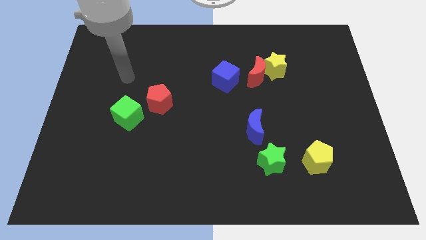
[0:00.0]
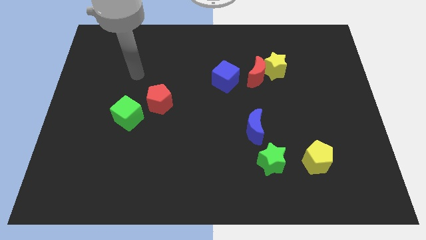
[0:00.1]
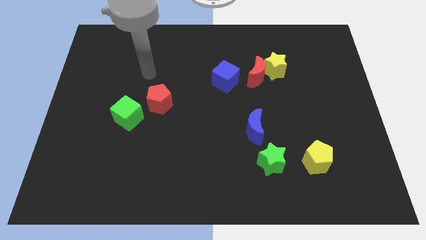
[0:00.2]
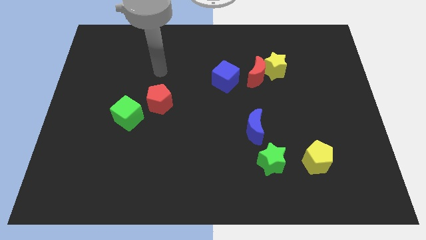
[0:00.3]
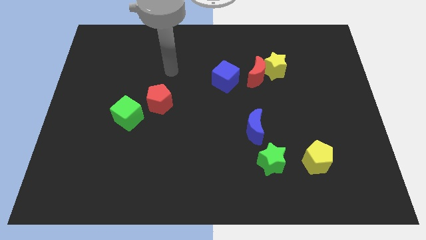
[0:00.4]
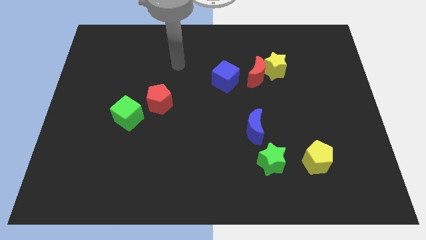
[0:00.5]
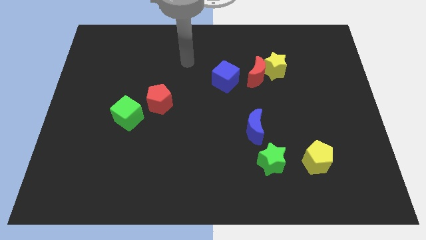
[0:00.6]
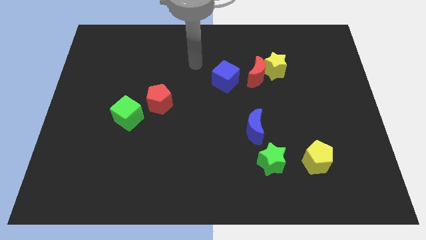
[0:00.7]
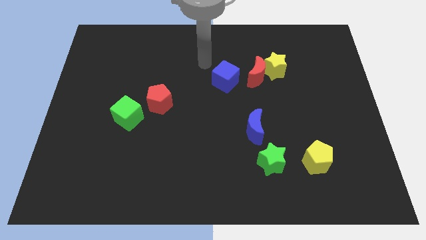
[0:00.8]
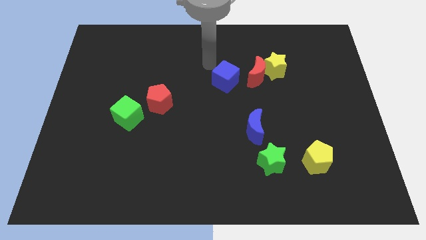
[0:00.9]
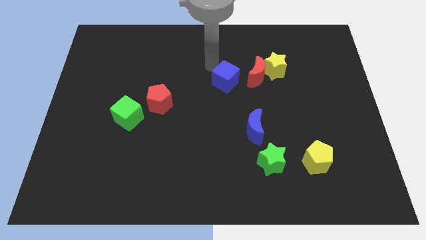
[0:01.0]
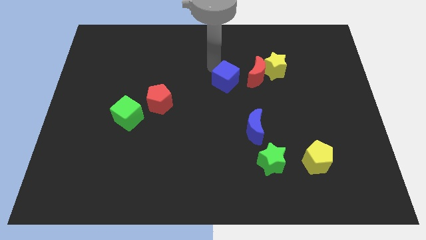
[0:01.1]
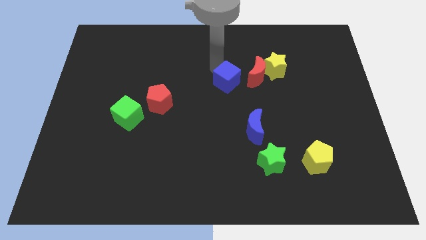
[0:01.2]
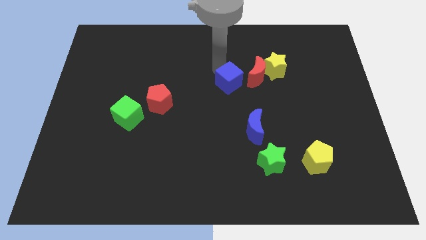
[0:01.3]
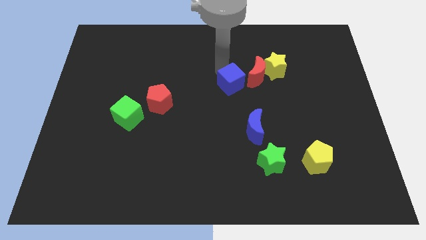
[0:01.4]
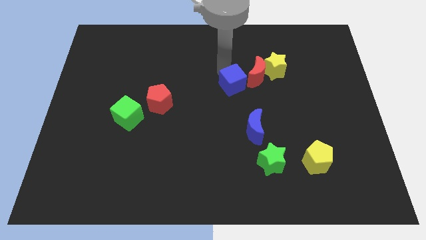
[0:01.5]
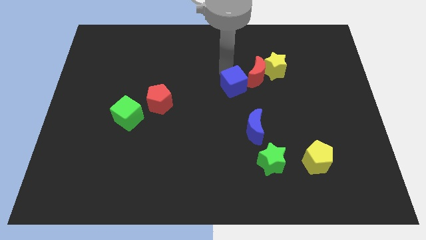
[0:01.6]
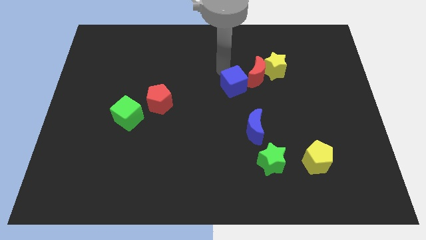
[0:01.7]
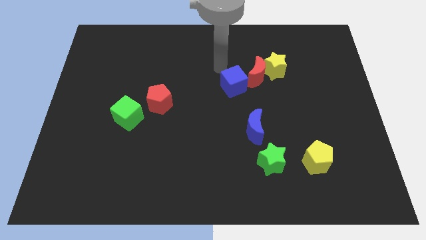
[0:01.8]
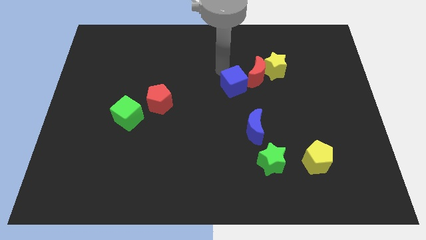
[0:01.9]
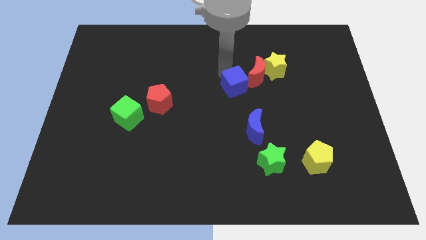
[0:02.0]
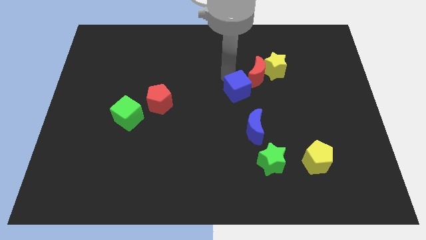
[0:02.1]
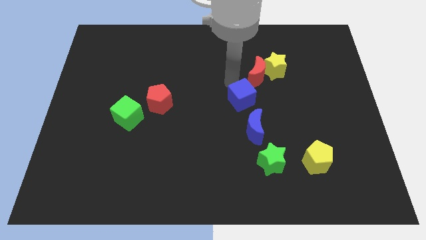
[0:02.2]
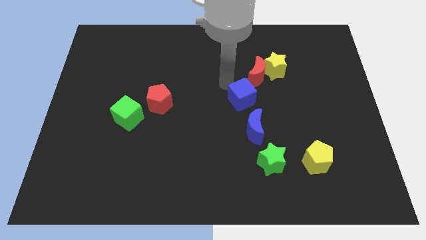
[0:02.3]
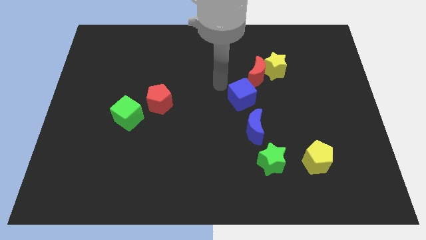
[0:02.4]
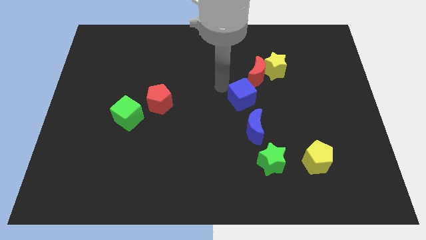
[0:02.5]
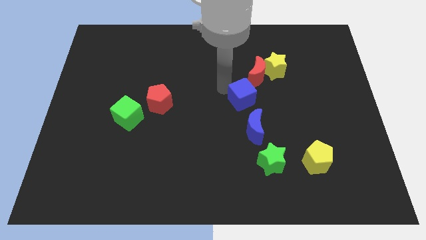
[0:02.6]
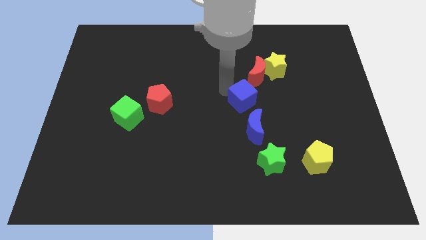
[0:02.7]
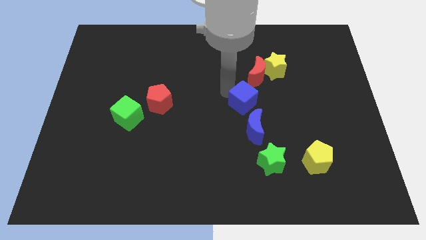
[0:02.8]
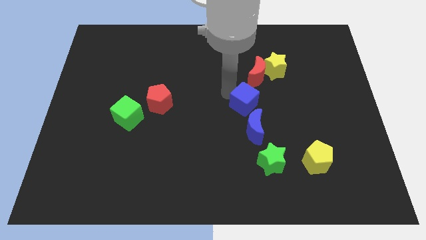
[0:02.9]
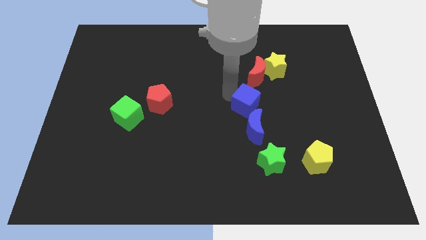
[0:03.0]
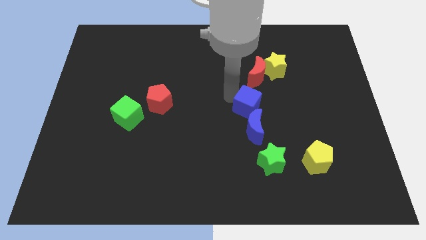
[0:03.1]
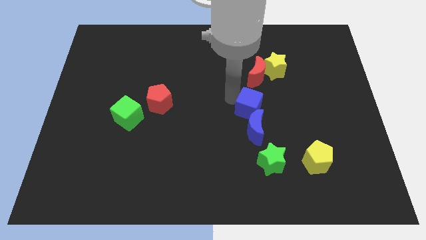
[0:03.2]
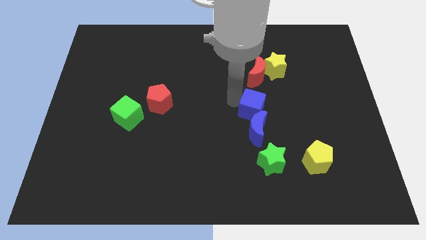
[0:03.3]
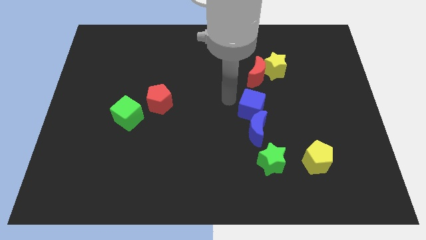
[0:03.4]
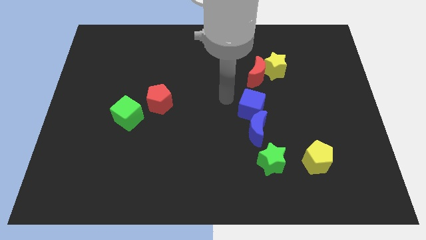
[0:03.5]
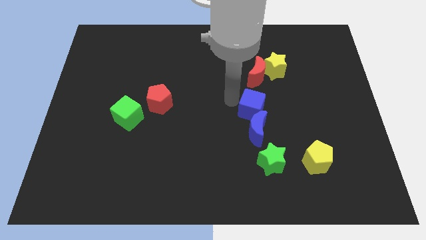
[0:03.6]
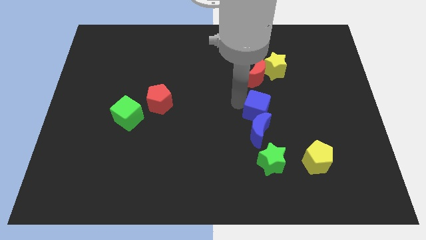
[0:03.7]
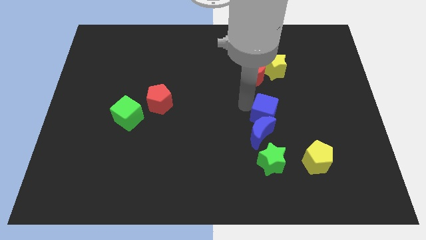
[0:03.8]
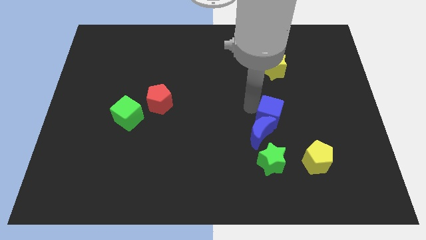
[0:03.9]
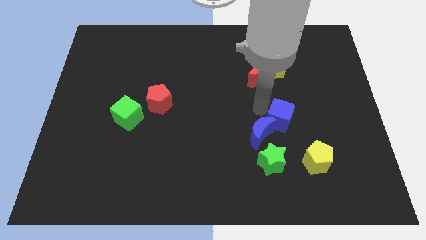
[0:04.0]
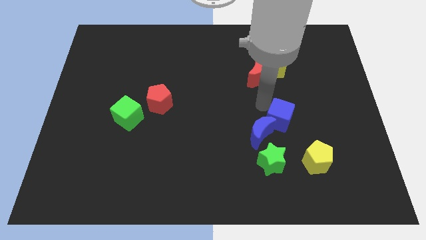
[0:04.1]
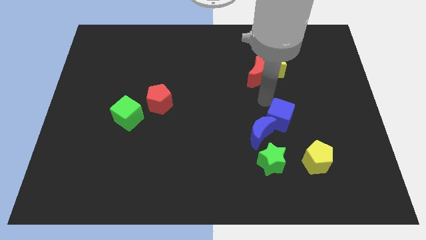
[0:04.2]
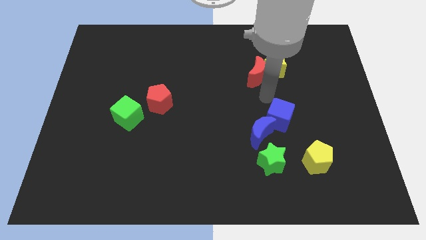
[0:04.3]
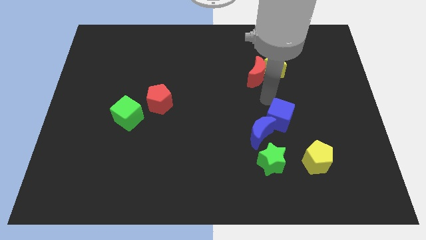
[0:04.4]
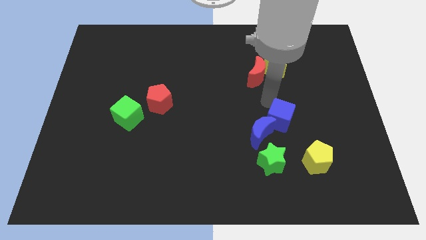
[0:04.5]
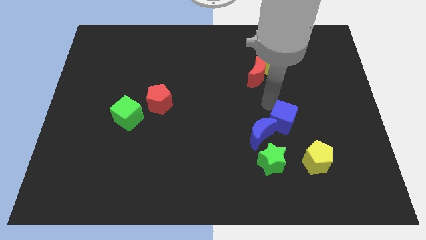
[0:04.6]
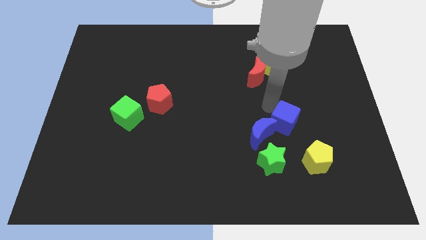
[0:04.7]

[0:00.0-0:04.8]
slide the blue cube to the top right side of the green star

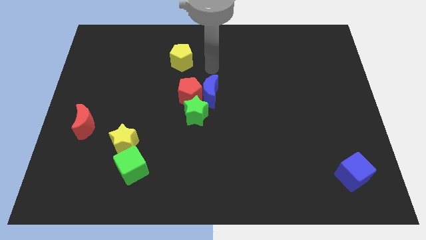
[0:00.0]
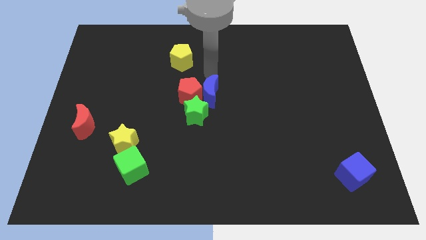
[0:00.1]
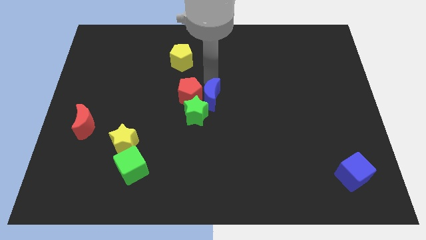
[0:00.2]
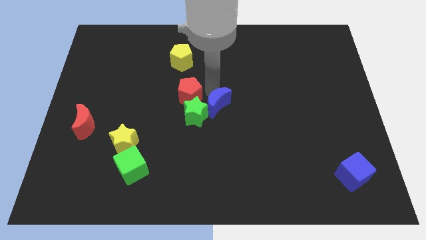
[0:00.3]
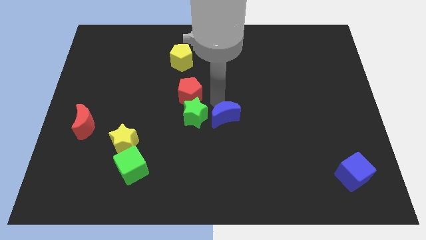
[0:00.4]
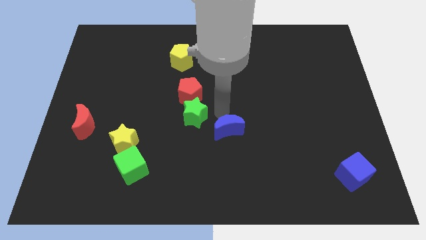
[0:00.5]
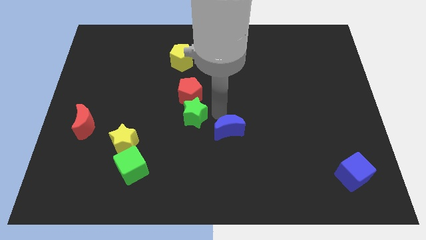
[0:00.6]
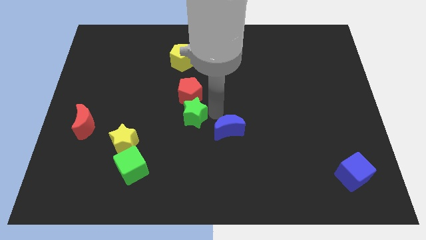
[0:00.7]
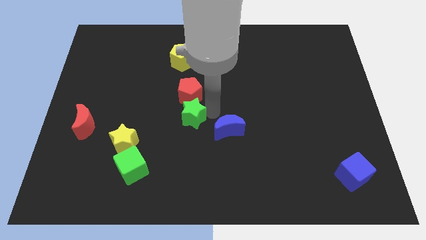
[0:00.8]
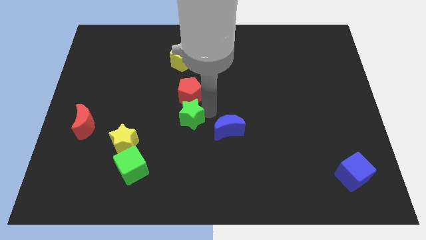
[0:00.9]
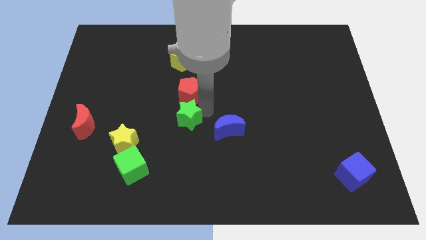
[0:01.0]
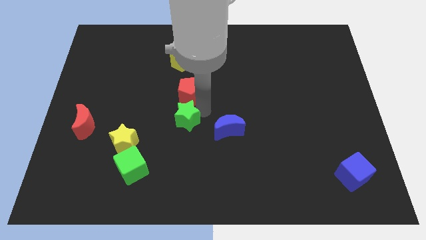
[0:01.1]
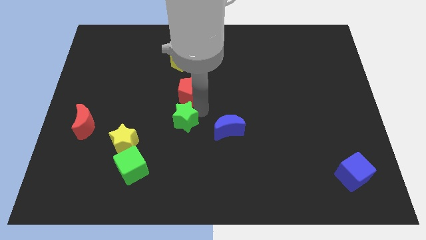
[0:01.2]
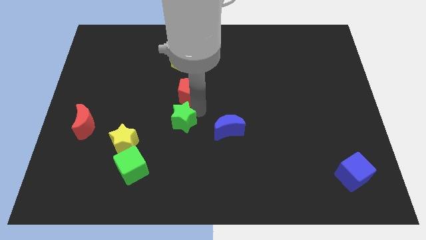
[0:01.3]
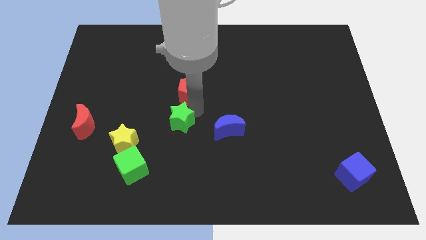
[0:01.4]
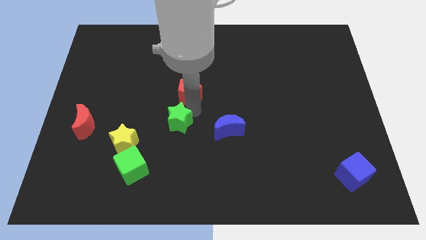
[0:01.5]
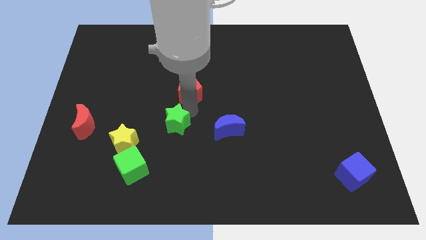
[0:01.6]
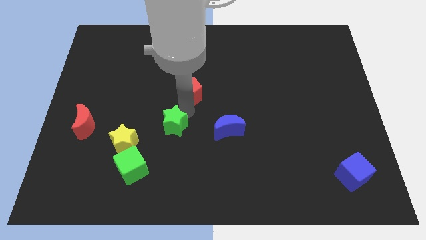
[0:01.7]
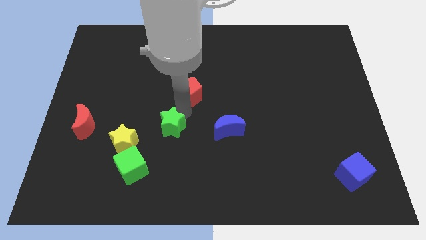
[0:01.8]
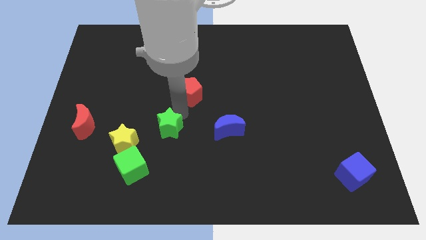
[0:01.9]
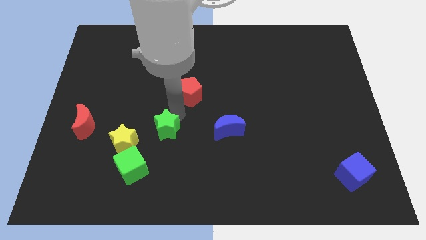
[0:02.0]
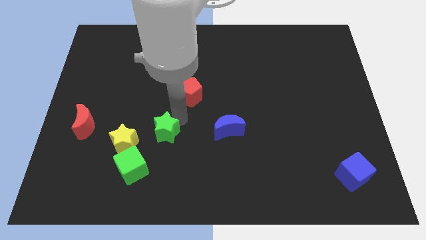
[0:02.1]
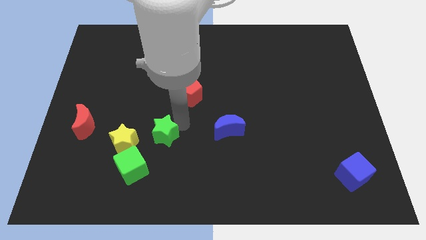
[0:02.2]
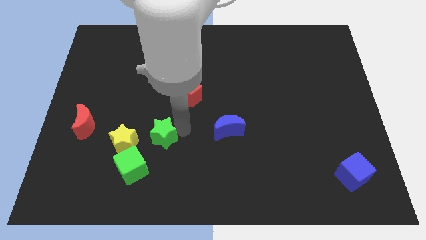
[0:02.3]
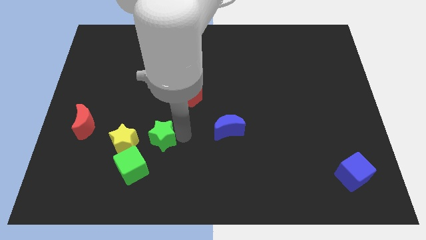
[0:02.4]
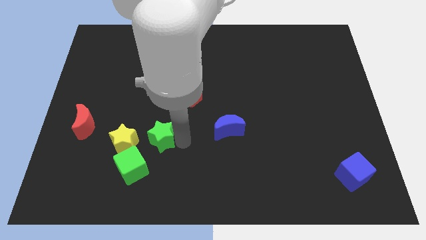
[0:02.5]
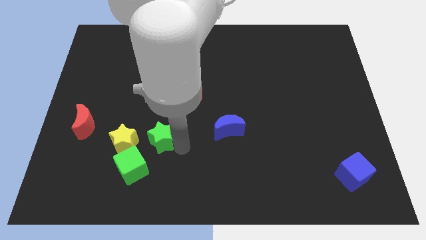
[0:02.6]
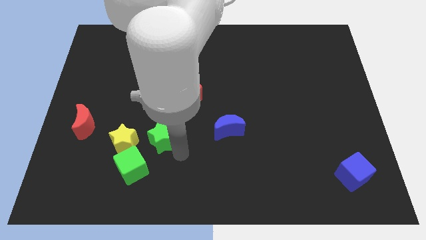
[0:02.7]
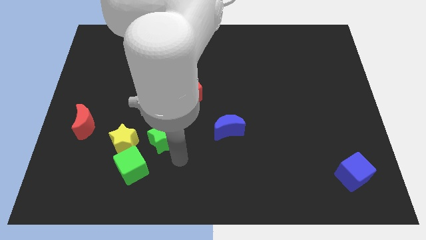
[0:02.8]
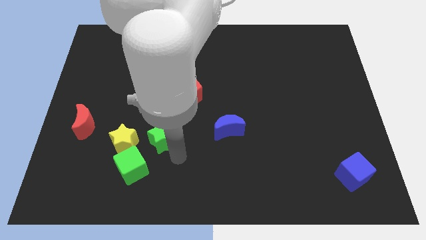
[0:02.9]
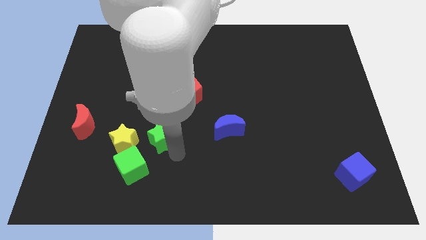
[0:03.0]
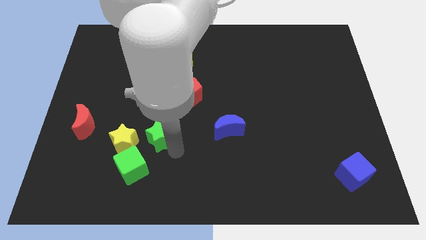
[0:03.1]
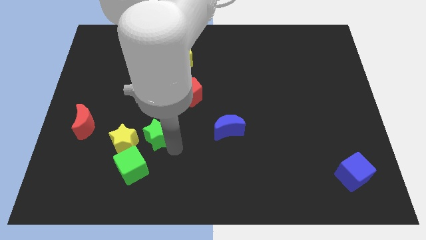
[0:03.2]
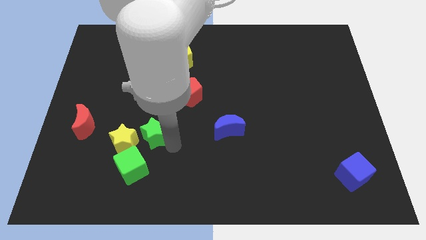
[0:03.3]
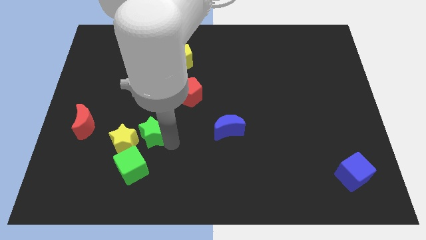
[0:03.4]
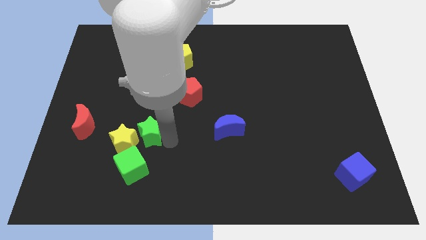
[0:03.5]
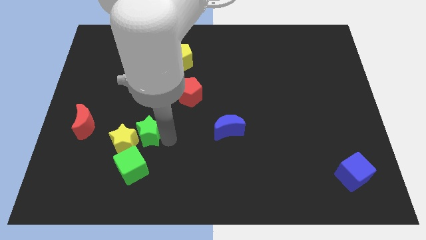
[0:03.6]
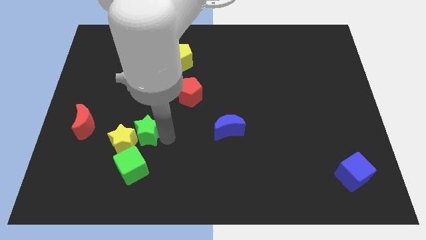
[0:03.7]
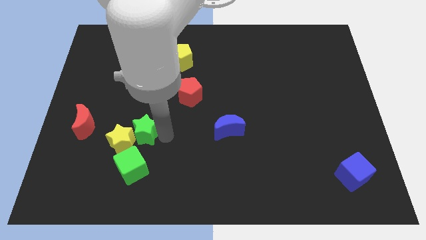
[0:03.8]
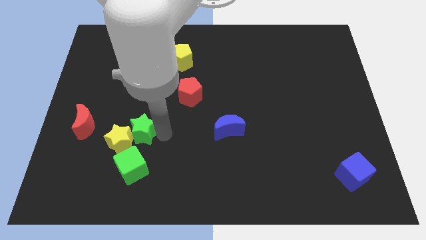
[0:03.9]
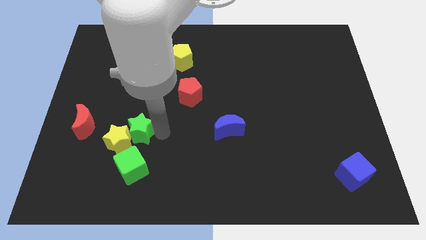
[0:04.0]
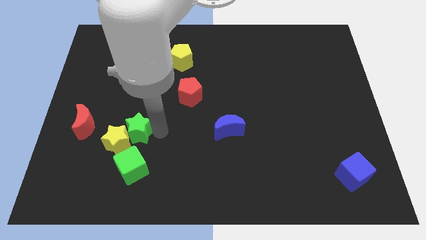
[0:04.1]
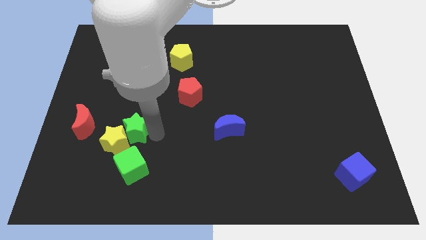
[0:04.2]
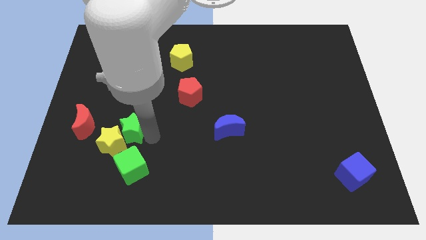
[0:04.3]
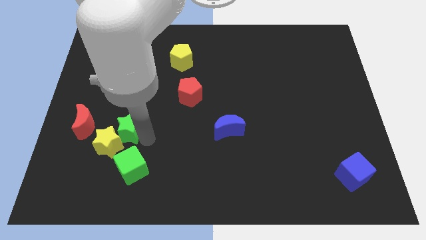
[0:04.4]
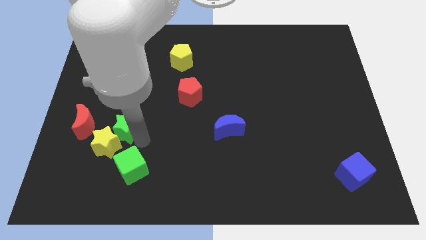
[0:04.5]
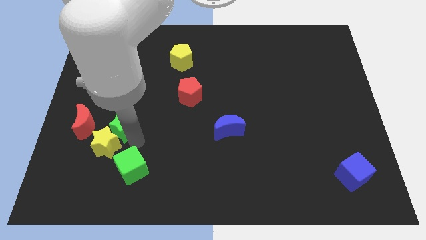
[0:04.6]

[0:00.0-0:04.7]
push the green star to the top left side of the green cube
